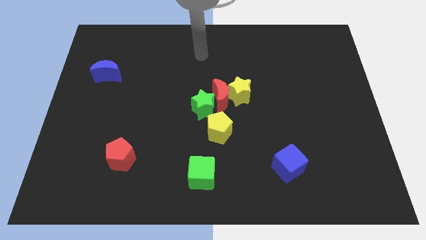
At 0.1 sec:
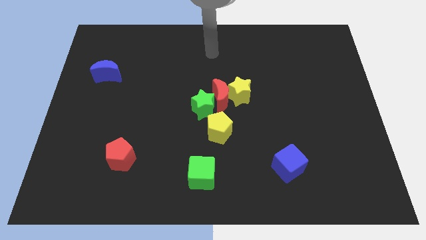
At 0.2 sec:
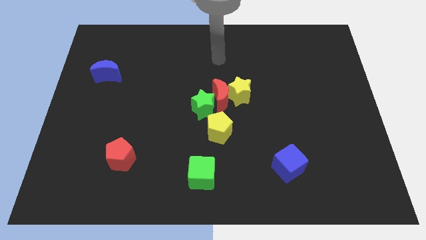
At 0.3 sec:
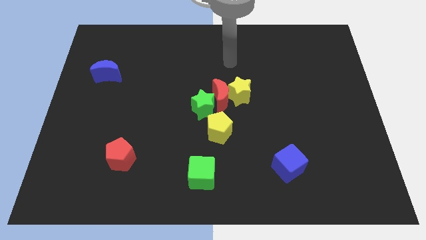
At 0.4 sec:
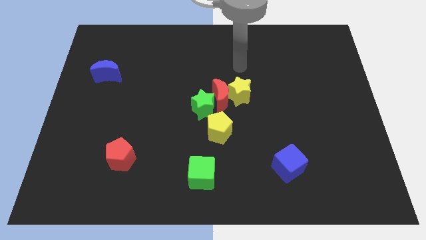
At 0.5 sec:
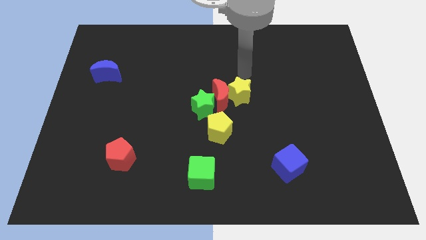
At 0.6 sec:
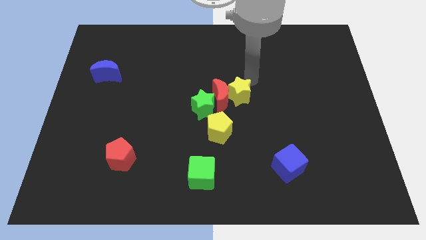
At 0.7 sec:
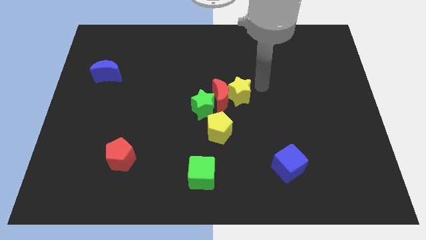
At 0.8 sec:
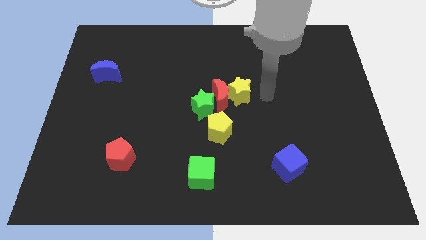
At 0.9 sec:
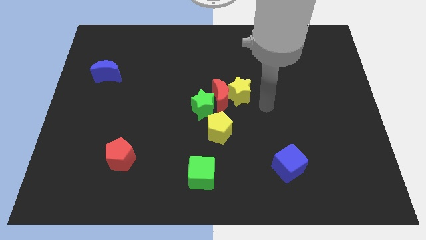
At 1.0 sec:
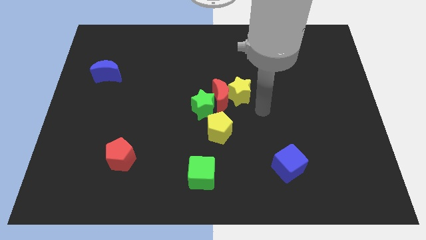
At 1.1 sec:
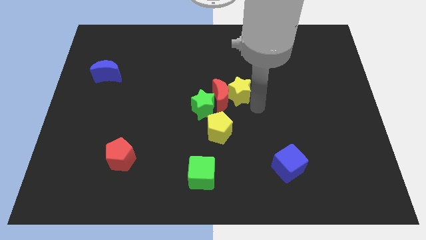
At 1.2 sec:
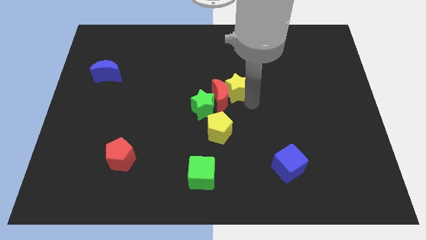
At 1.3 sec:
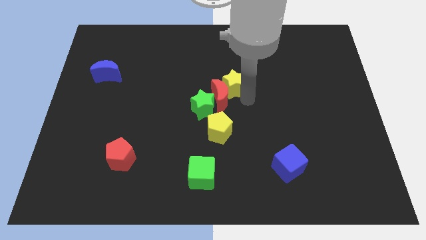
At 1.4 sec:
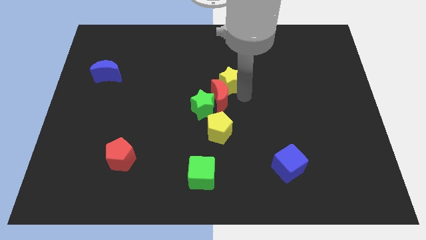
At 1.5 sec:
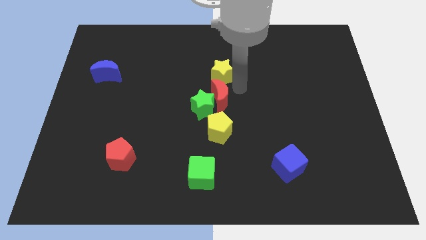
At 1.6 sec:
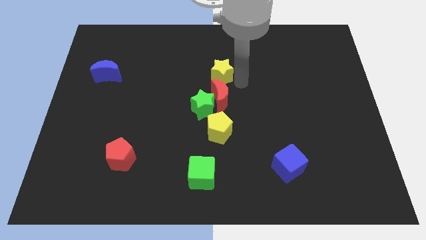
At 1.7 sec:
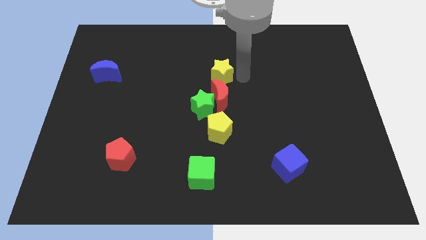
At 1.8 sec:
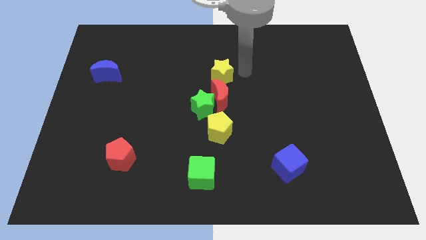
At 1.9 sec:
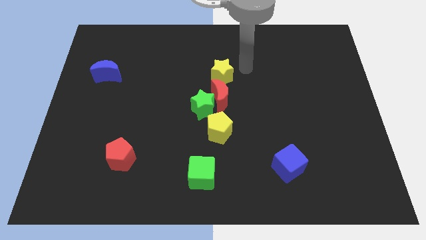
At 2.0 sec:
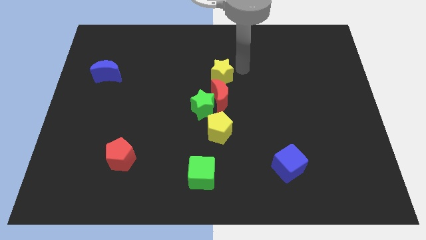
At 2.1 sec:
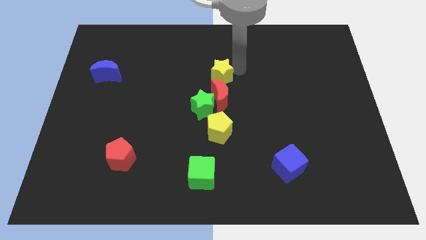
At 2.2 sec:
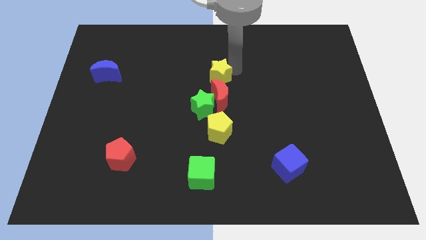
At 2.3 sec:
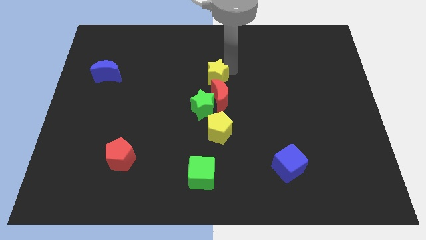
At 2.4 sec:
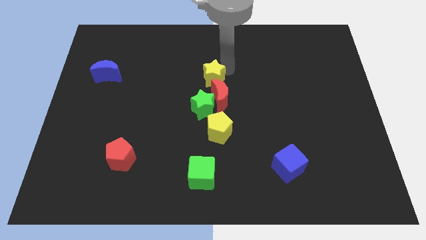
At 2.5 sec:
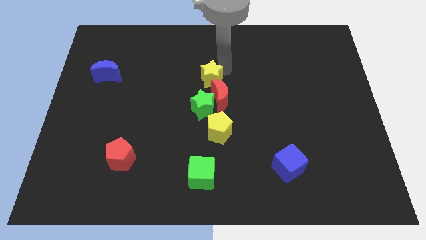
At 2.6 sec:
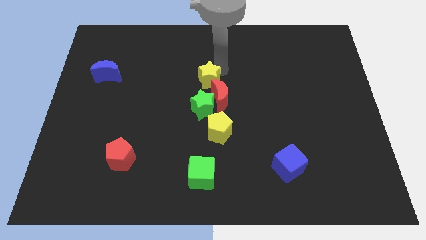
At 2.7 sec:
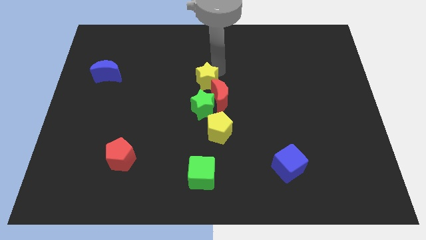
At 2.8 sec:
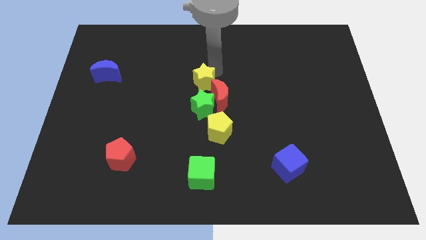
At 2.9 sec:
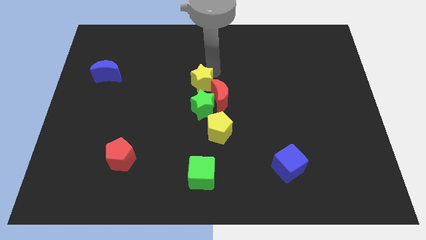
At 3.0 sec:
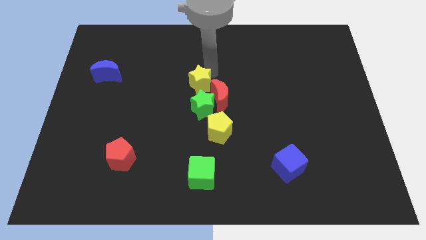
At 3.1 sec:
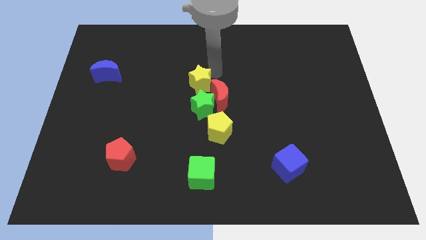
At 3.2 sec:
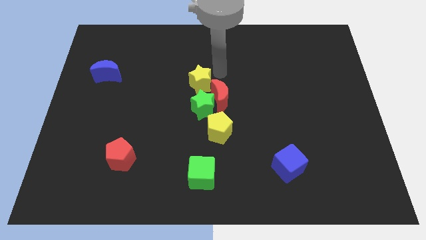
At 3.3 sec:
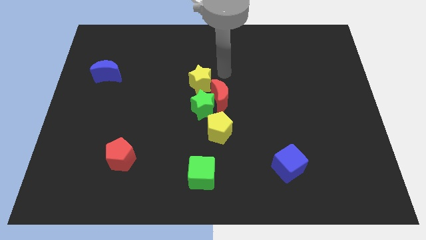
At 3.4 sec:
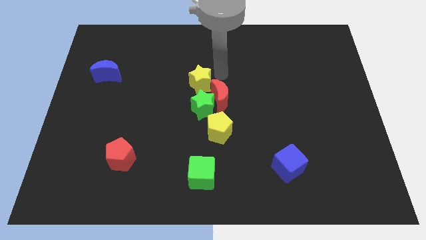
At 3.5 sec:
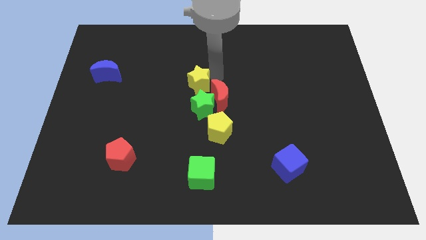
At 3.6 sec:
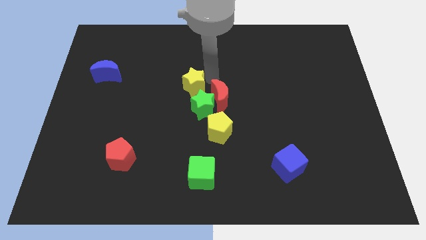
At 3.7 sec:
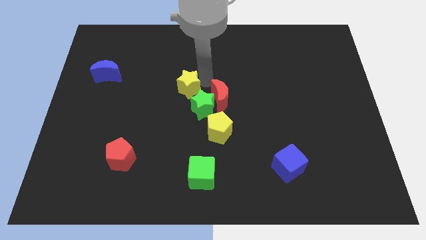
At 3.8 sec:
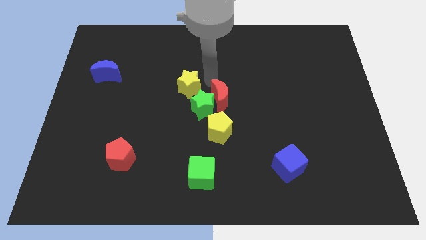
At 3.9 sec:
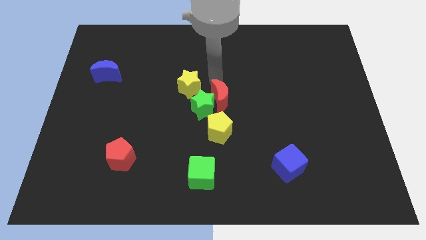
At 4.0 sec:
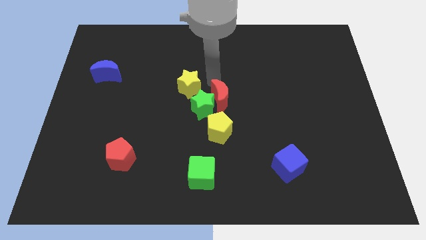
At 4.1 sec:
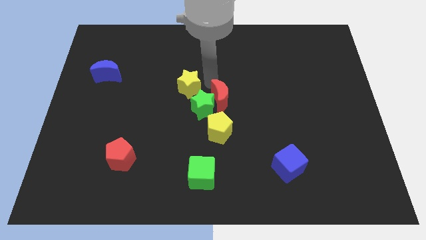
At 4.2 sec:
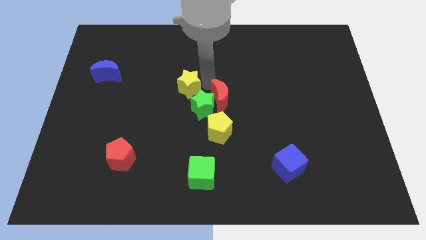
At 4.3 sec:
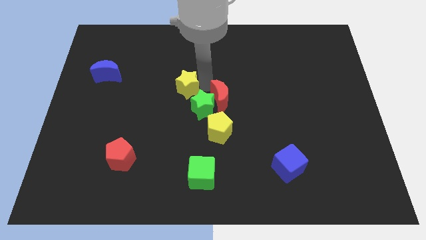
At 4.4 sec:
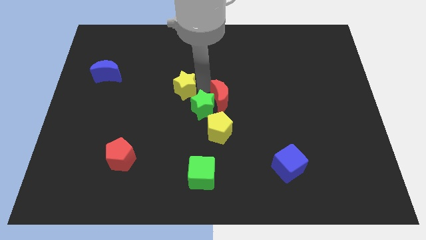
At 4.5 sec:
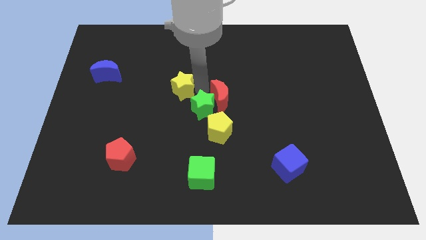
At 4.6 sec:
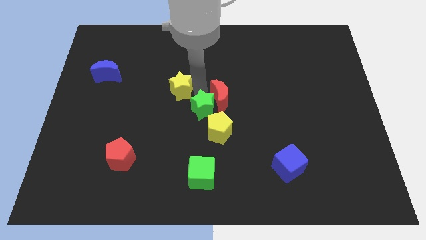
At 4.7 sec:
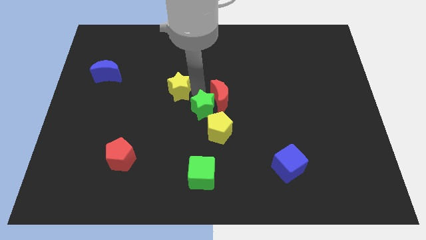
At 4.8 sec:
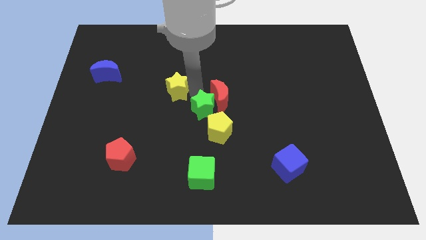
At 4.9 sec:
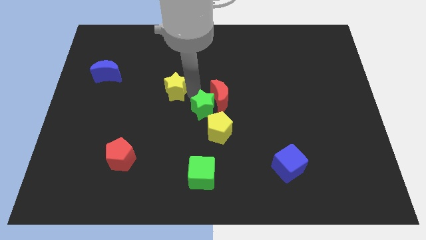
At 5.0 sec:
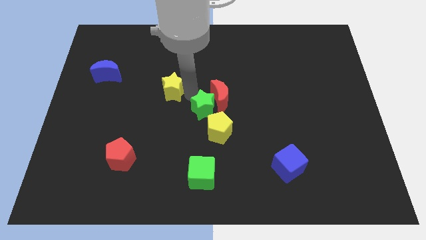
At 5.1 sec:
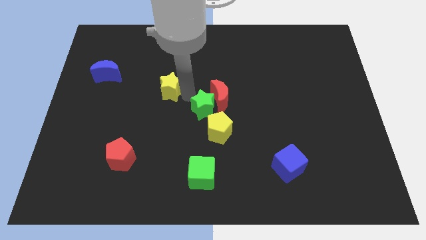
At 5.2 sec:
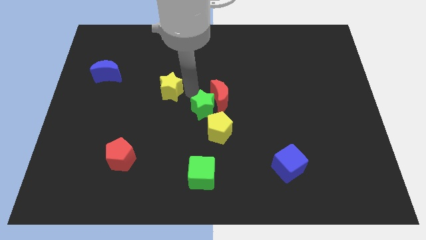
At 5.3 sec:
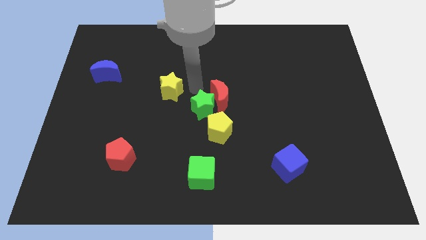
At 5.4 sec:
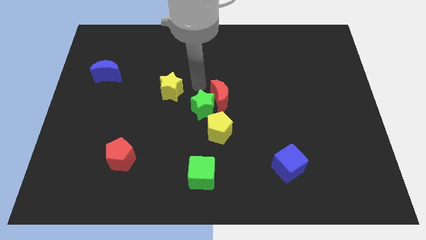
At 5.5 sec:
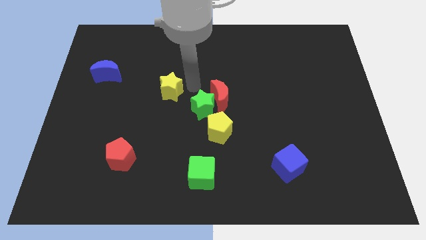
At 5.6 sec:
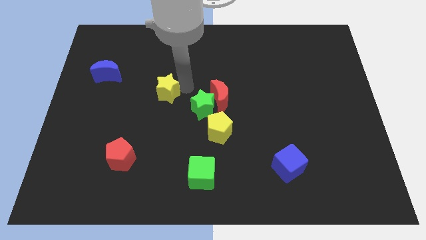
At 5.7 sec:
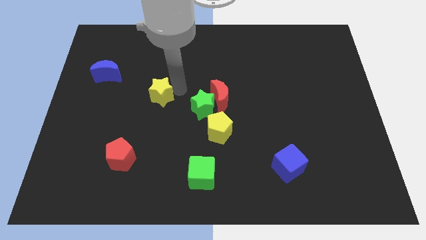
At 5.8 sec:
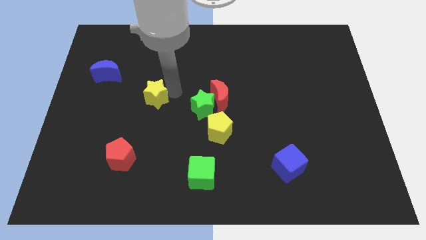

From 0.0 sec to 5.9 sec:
push the yellow star to the left

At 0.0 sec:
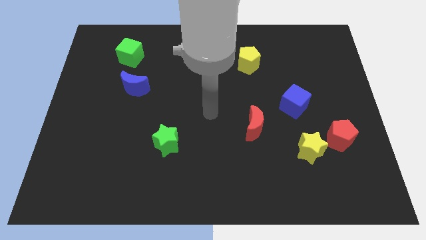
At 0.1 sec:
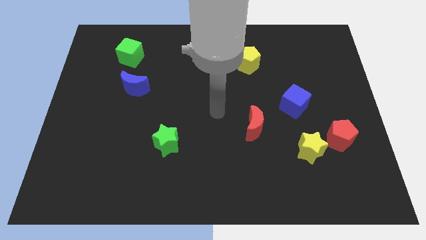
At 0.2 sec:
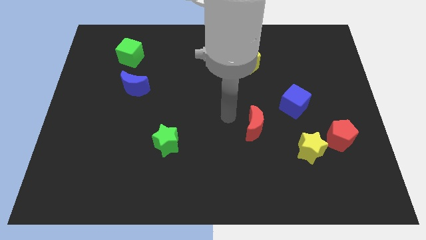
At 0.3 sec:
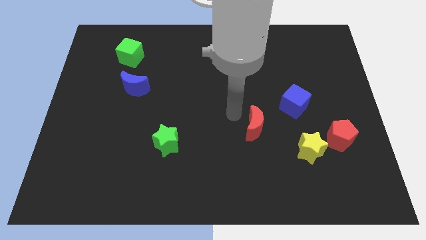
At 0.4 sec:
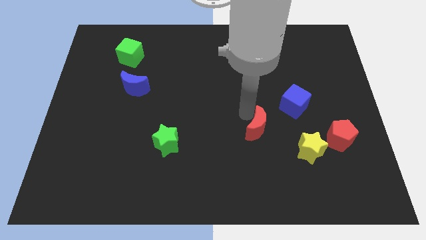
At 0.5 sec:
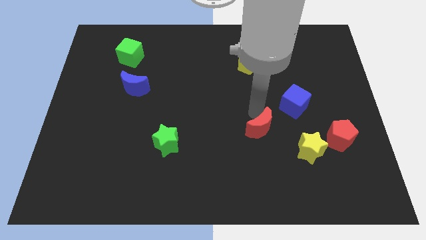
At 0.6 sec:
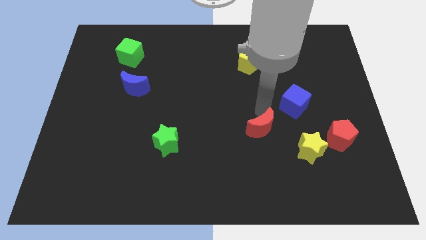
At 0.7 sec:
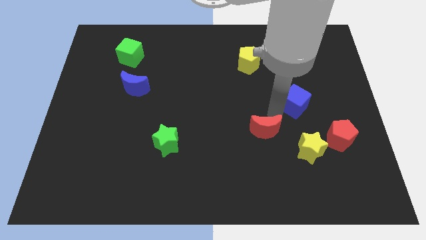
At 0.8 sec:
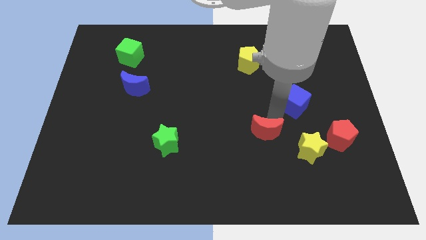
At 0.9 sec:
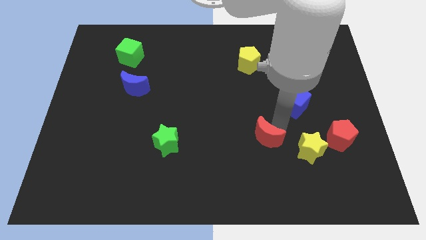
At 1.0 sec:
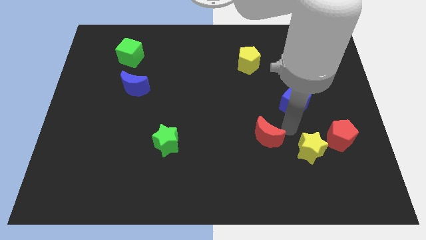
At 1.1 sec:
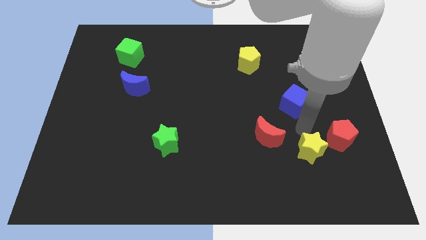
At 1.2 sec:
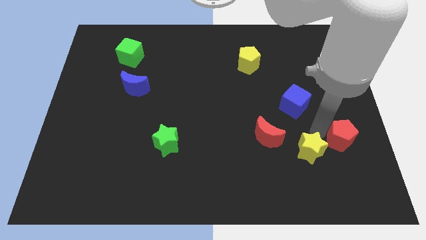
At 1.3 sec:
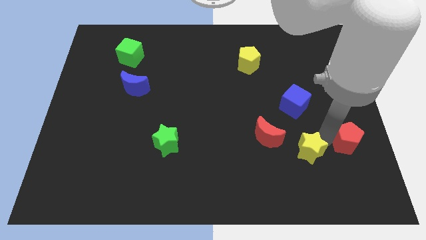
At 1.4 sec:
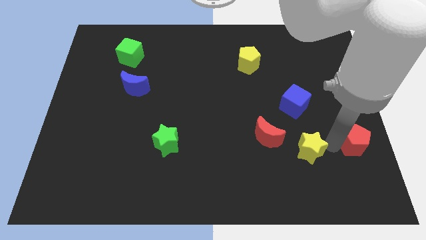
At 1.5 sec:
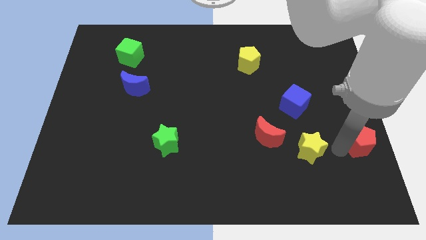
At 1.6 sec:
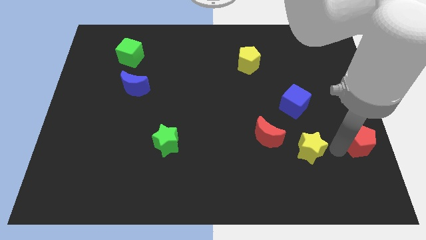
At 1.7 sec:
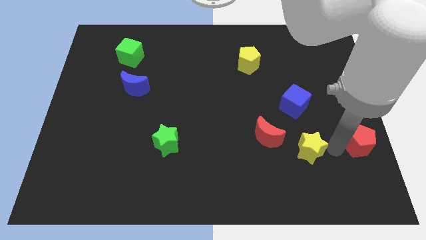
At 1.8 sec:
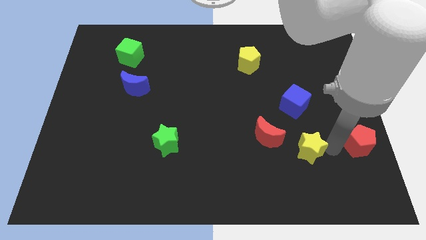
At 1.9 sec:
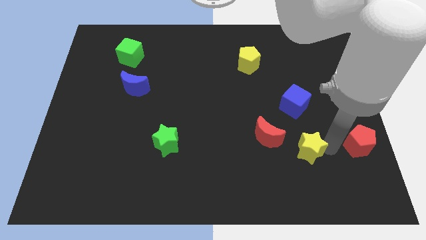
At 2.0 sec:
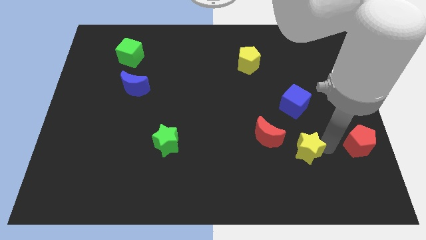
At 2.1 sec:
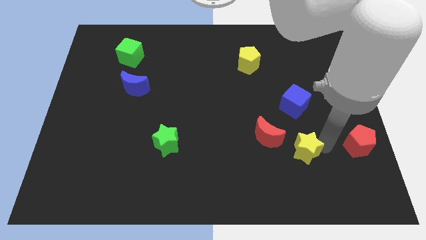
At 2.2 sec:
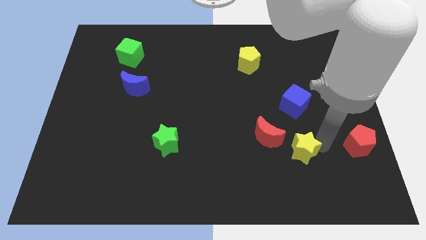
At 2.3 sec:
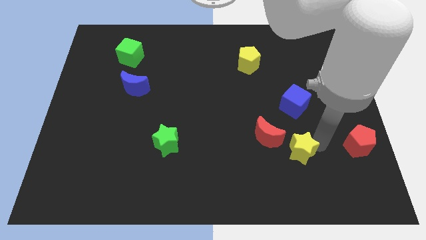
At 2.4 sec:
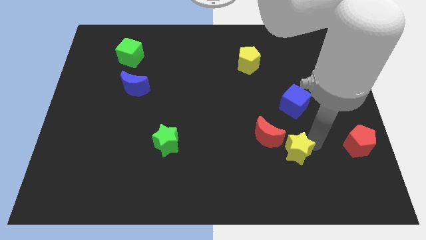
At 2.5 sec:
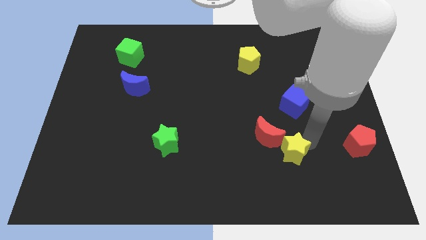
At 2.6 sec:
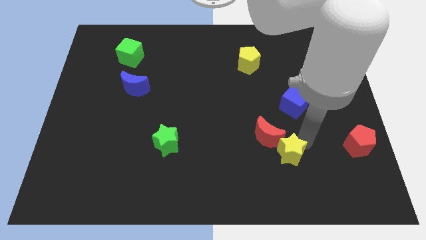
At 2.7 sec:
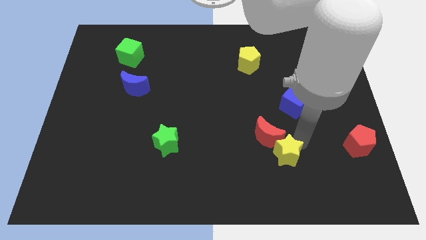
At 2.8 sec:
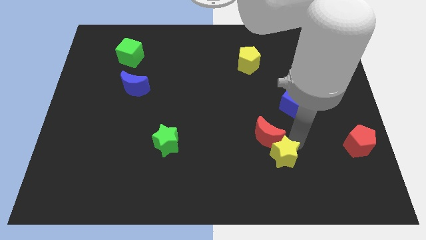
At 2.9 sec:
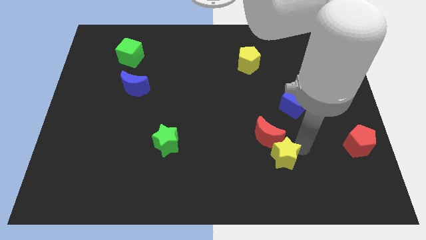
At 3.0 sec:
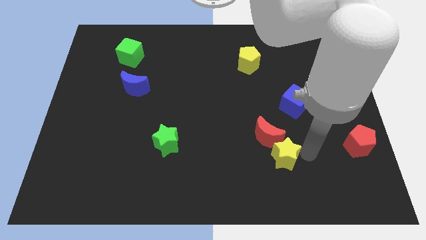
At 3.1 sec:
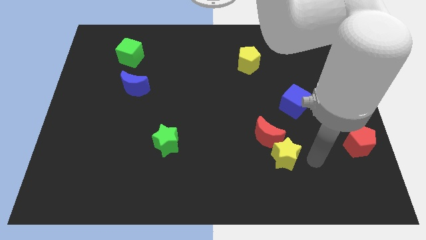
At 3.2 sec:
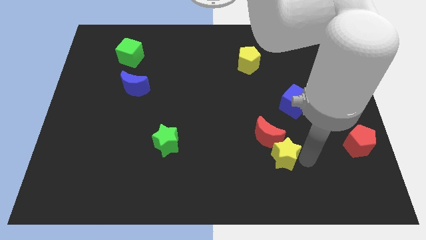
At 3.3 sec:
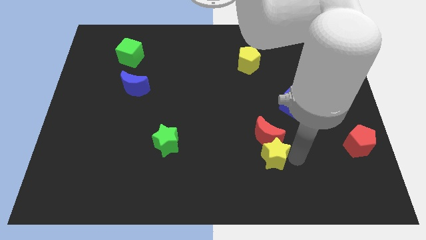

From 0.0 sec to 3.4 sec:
slide the yellow star to the left a little bit
